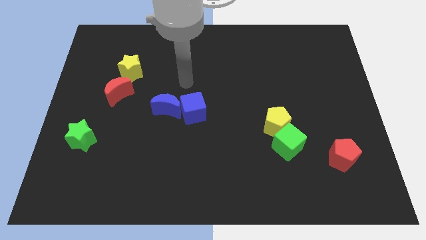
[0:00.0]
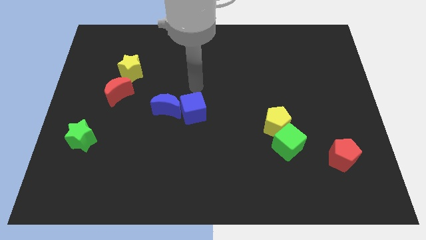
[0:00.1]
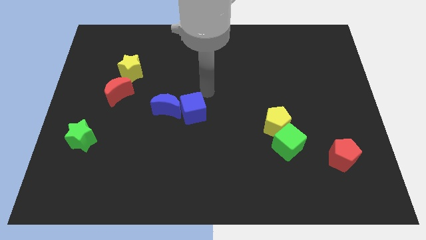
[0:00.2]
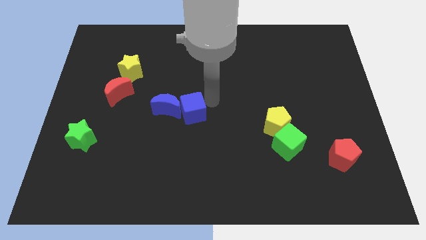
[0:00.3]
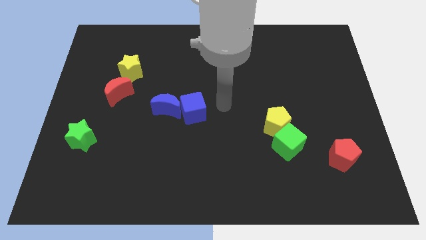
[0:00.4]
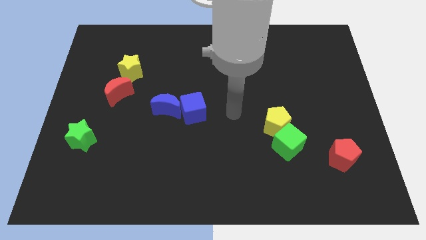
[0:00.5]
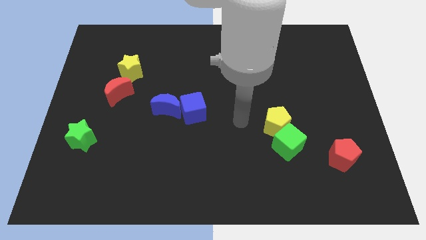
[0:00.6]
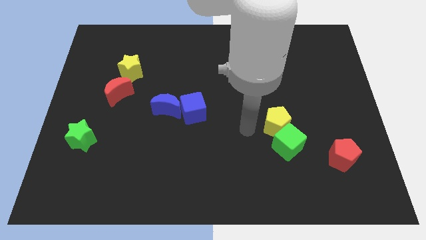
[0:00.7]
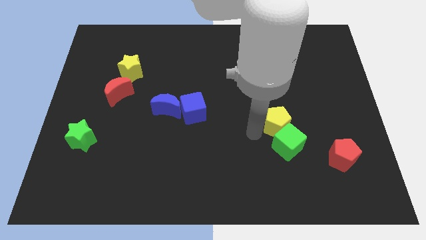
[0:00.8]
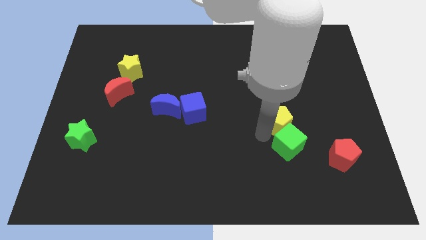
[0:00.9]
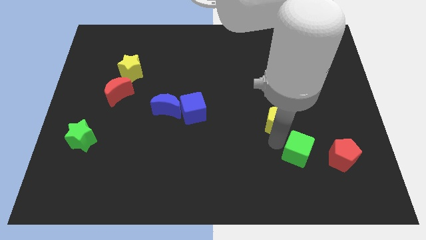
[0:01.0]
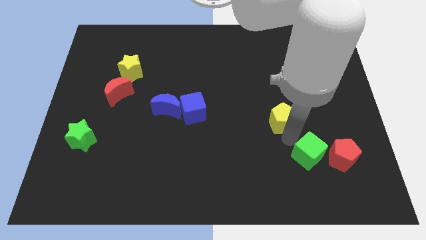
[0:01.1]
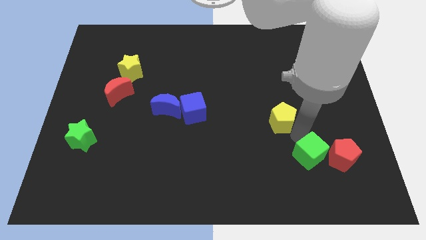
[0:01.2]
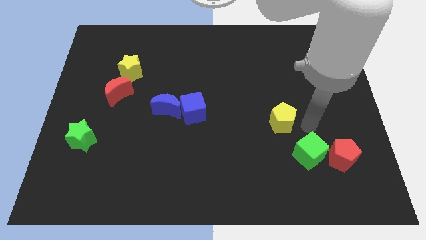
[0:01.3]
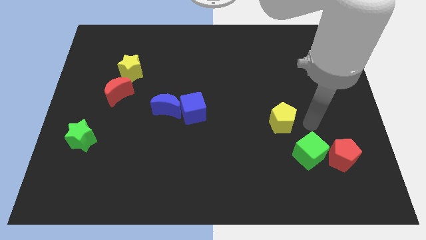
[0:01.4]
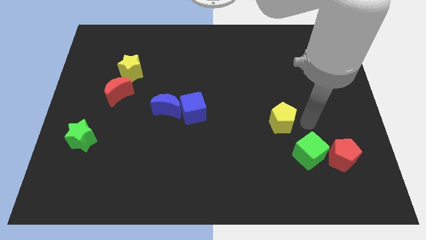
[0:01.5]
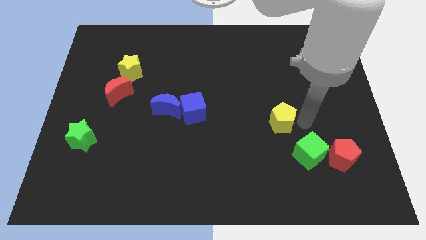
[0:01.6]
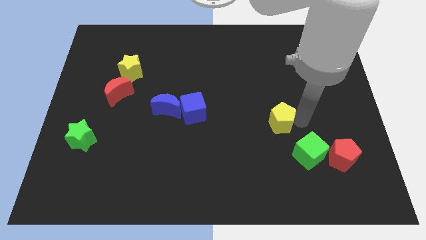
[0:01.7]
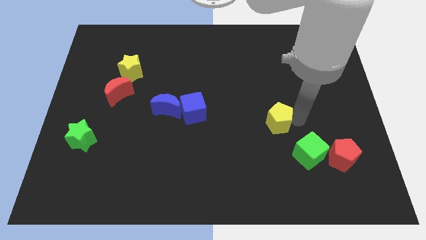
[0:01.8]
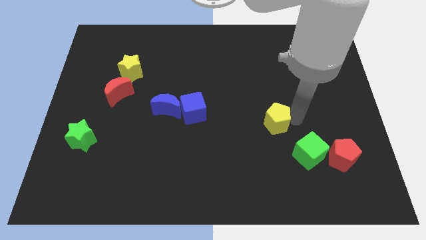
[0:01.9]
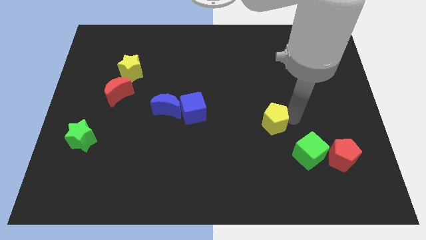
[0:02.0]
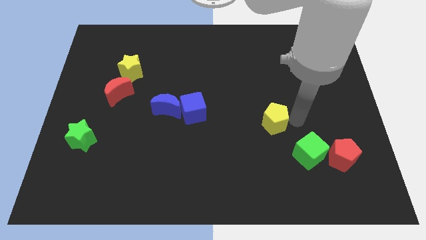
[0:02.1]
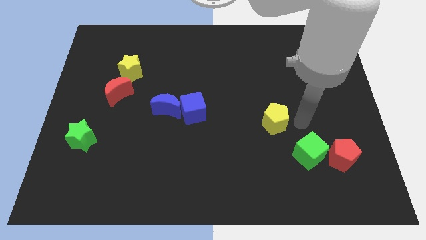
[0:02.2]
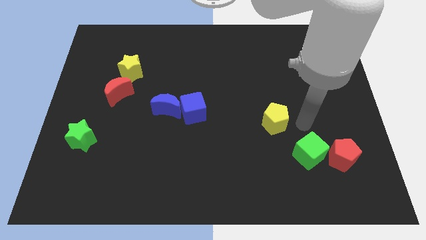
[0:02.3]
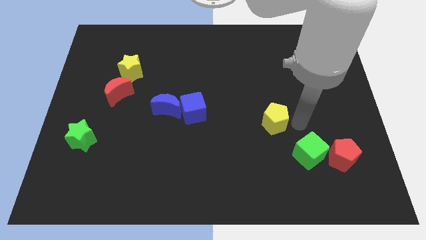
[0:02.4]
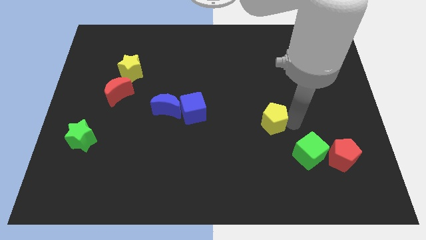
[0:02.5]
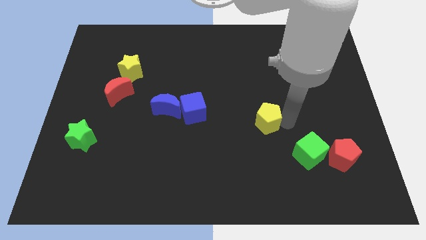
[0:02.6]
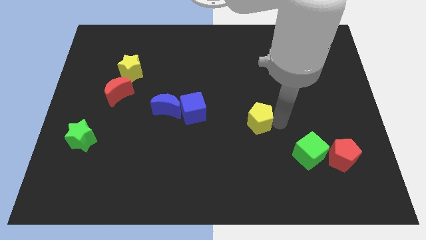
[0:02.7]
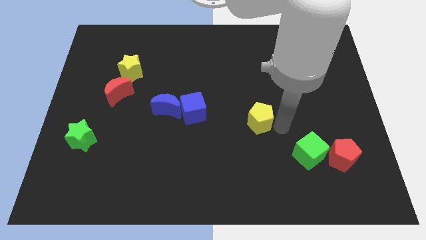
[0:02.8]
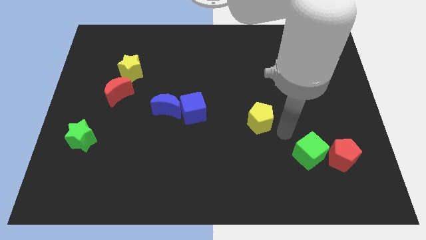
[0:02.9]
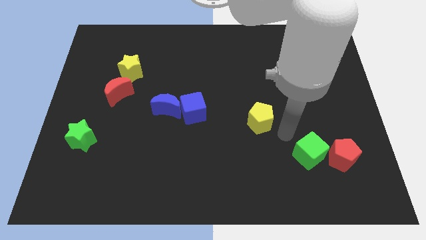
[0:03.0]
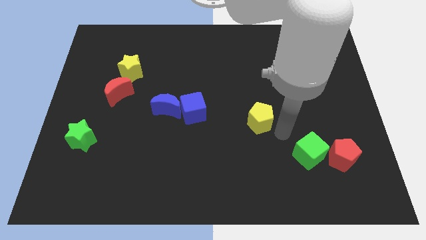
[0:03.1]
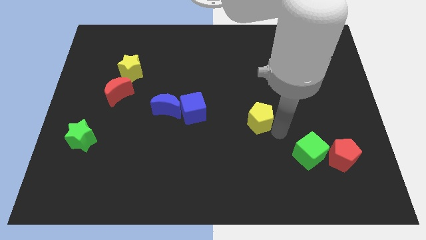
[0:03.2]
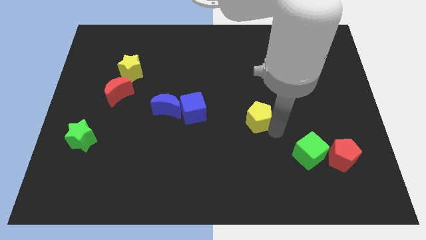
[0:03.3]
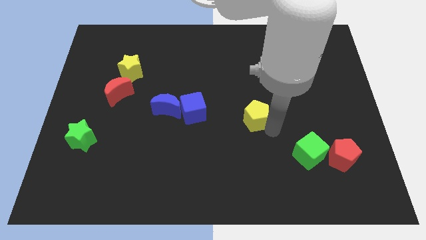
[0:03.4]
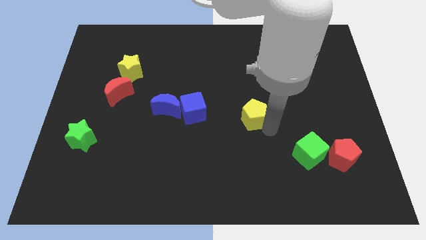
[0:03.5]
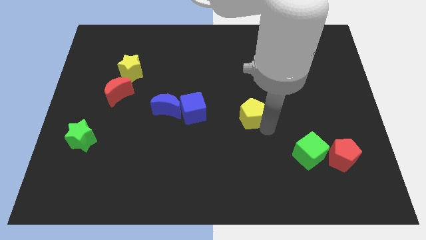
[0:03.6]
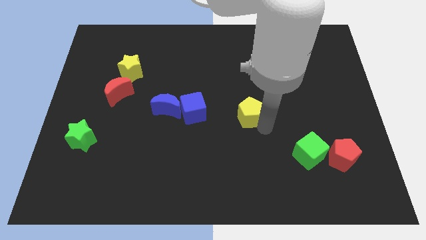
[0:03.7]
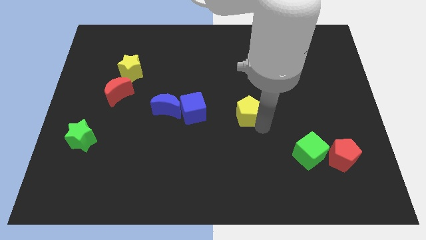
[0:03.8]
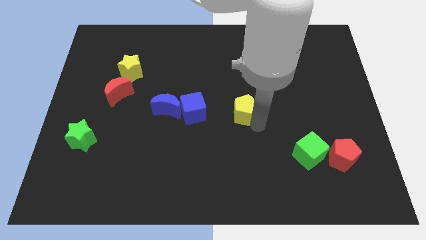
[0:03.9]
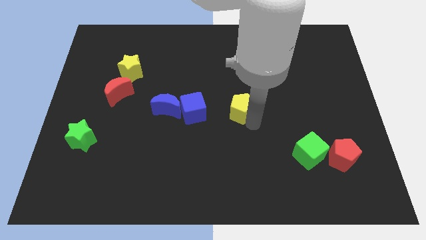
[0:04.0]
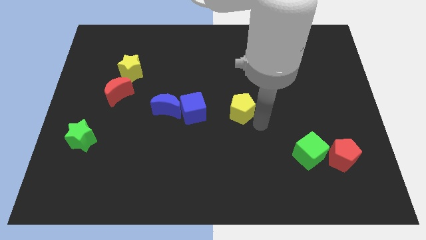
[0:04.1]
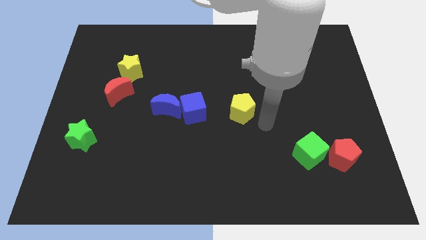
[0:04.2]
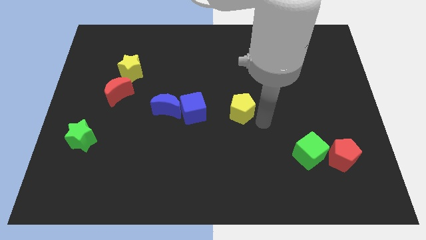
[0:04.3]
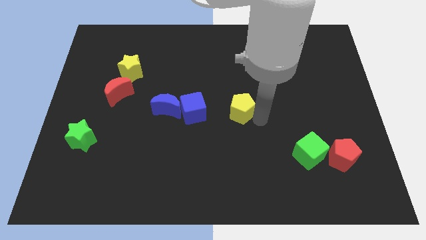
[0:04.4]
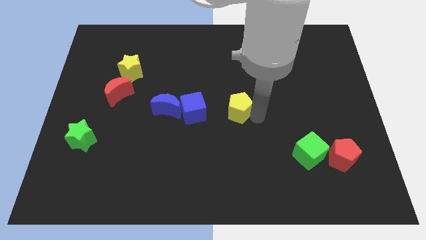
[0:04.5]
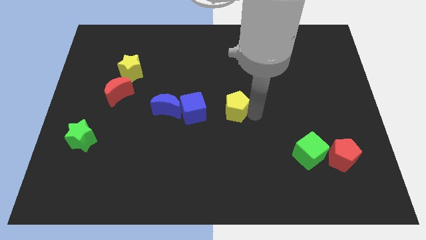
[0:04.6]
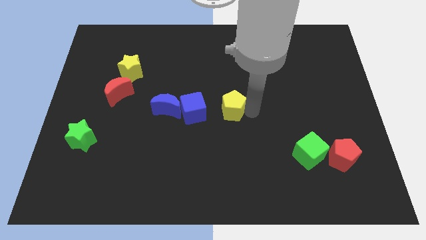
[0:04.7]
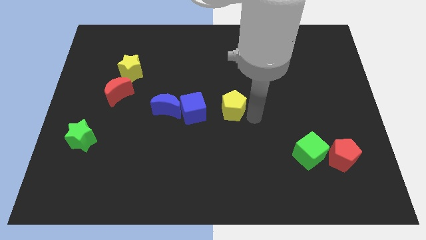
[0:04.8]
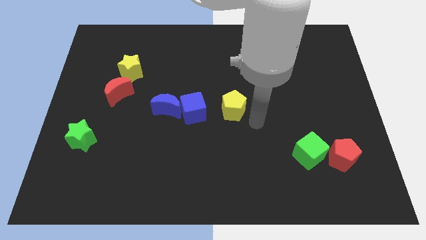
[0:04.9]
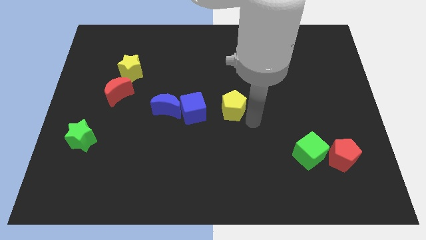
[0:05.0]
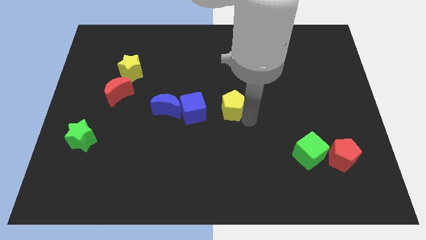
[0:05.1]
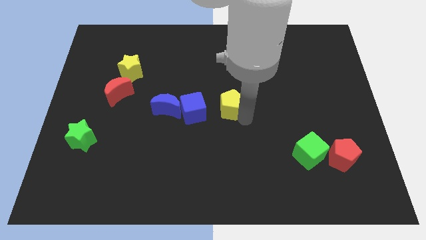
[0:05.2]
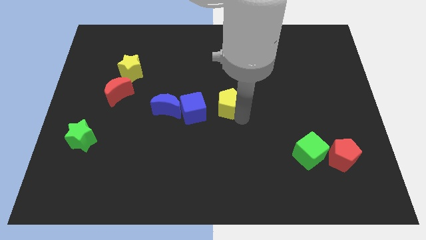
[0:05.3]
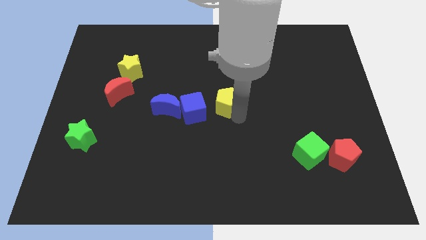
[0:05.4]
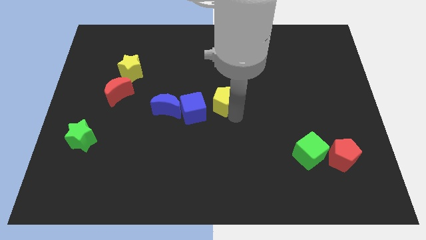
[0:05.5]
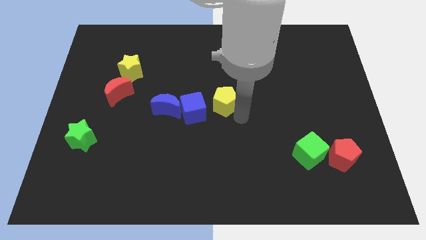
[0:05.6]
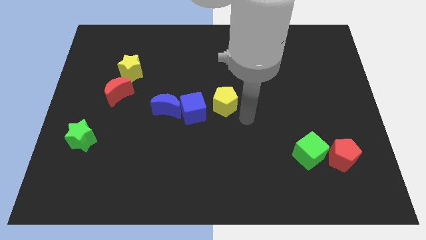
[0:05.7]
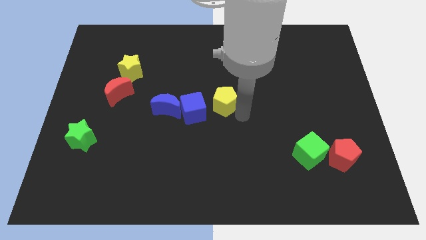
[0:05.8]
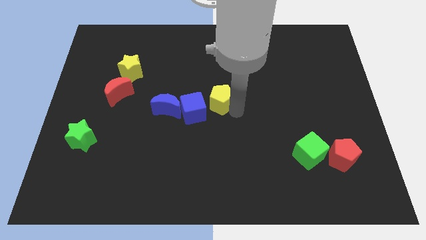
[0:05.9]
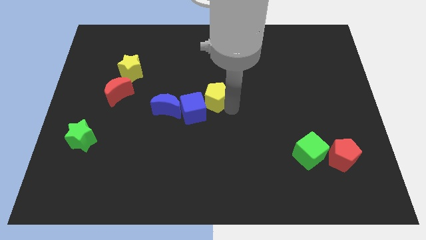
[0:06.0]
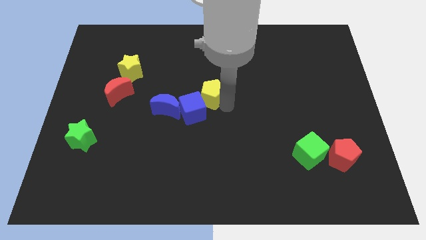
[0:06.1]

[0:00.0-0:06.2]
move the yellow pentagon to the top of the blue cube

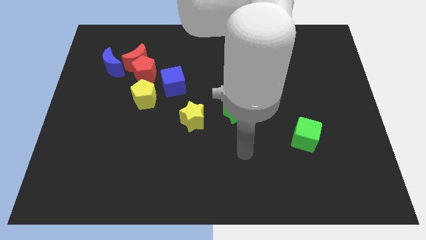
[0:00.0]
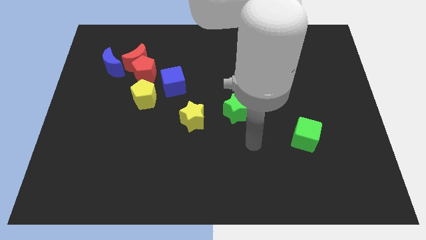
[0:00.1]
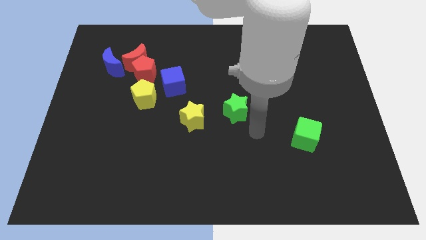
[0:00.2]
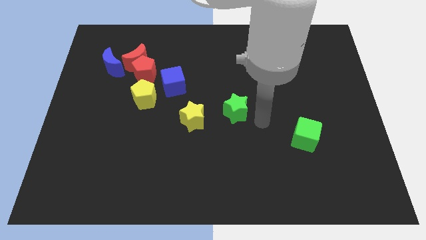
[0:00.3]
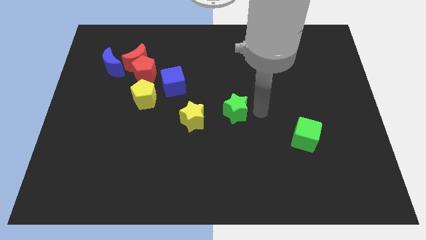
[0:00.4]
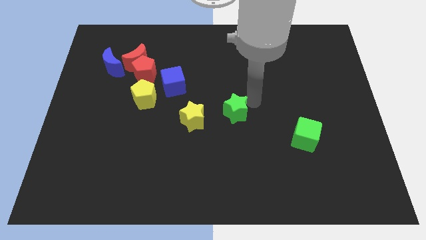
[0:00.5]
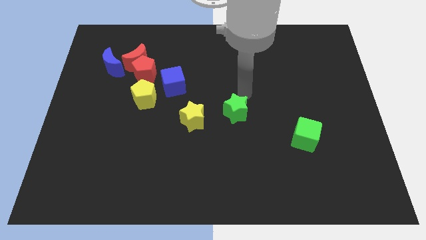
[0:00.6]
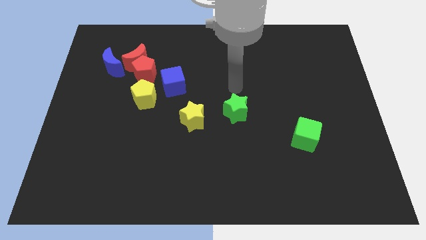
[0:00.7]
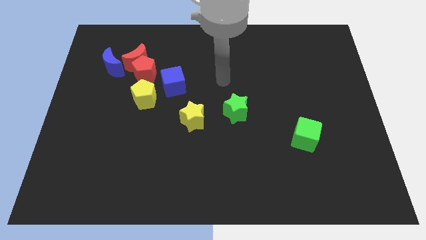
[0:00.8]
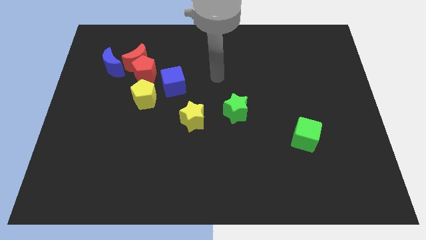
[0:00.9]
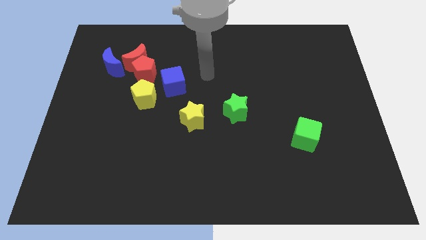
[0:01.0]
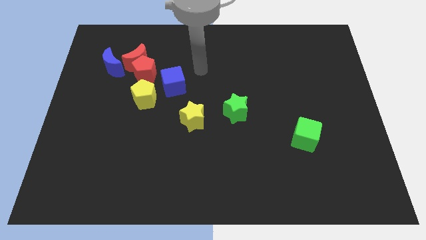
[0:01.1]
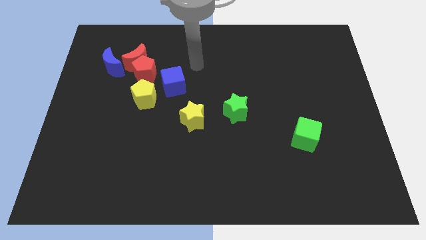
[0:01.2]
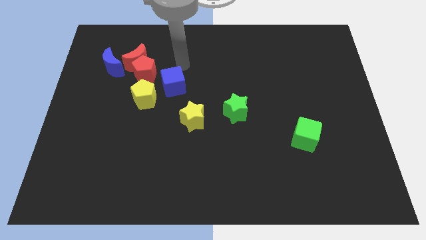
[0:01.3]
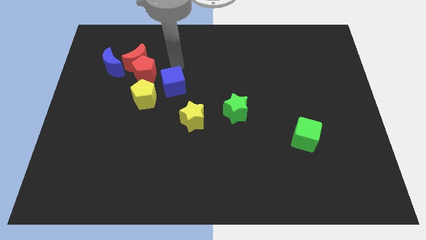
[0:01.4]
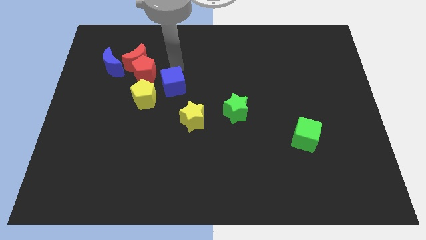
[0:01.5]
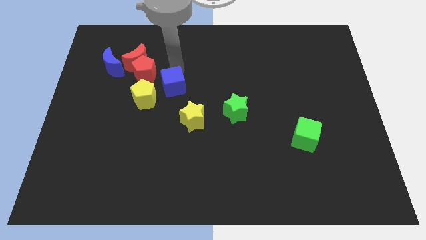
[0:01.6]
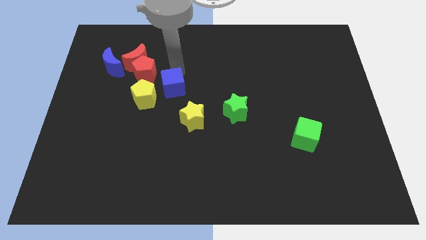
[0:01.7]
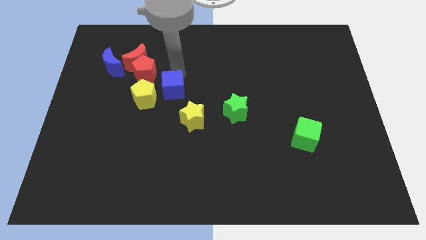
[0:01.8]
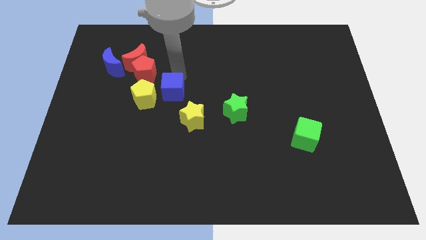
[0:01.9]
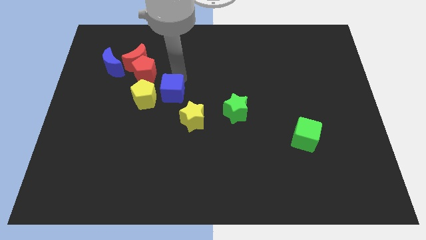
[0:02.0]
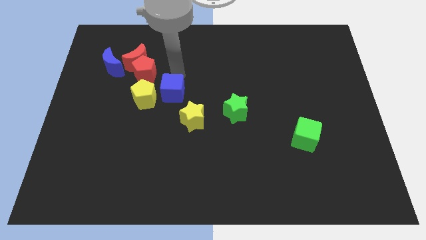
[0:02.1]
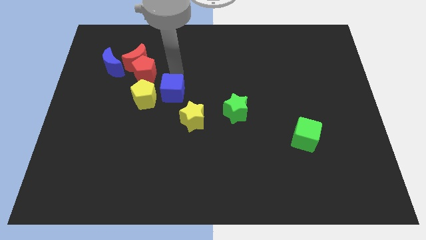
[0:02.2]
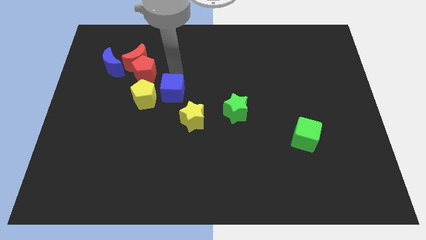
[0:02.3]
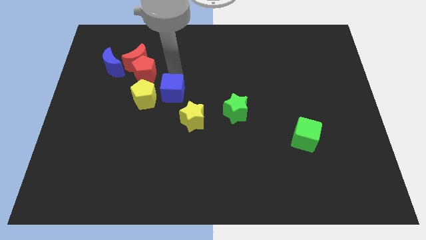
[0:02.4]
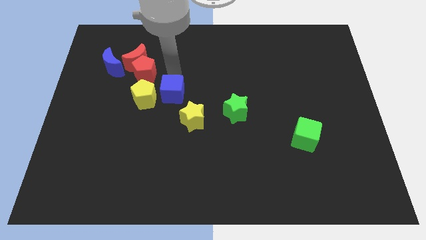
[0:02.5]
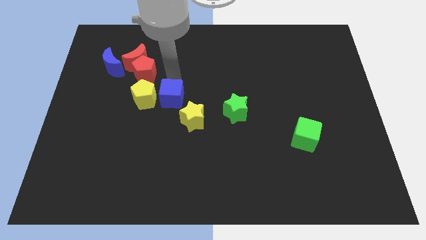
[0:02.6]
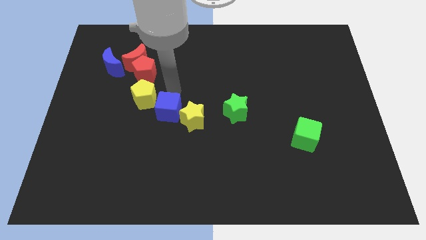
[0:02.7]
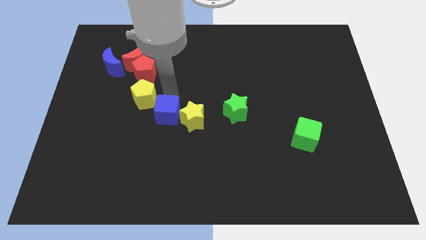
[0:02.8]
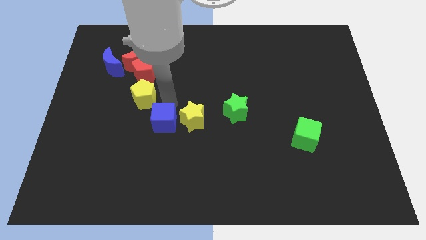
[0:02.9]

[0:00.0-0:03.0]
slide the blue cube to the bottom left of the yellow star
